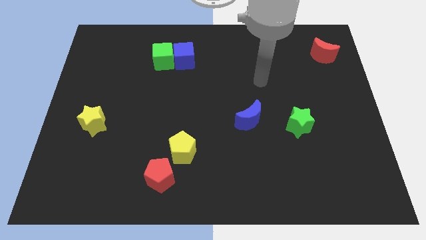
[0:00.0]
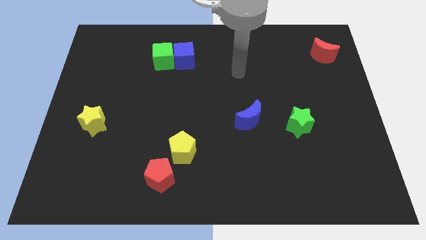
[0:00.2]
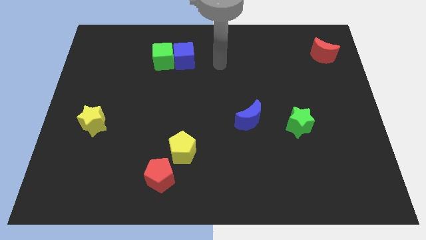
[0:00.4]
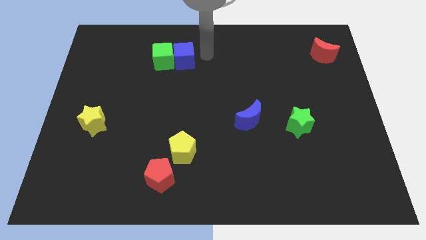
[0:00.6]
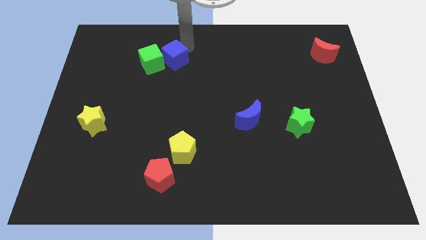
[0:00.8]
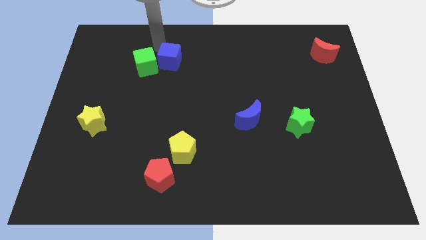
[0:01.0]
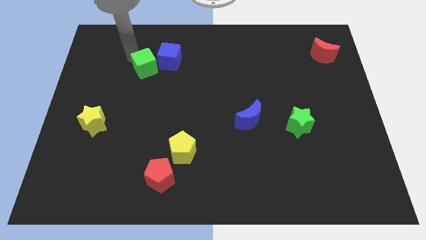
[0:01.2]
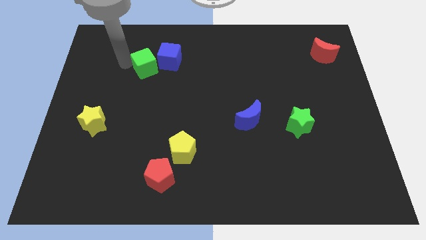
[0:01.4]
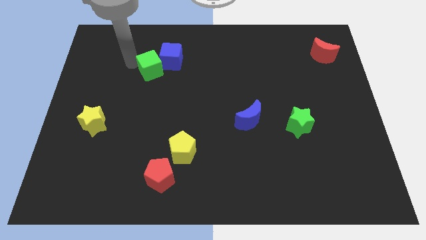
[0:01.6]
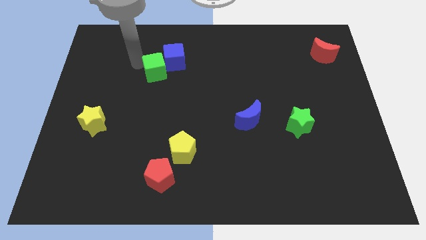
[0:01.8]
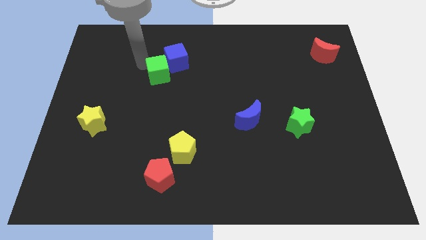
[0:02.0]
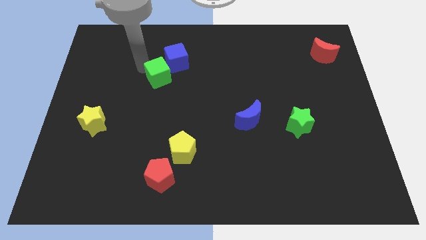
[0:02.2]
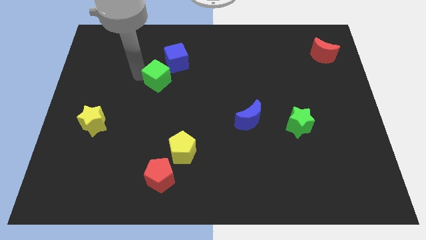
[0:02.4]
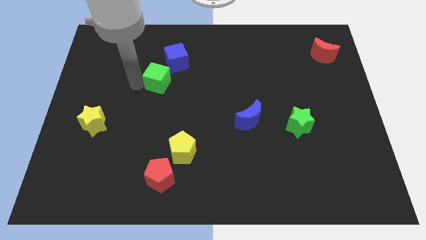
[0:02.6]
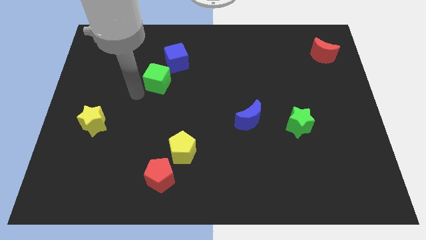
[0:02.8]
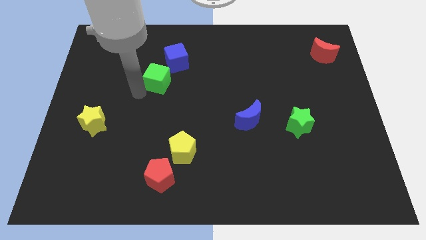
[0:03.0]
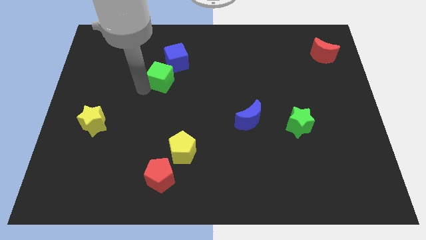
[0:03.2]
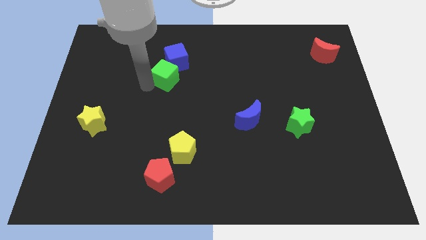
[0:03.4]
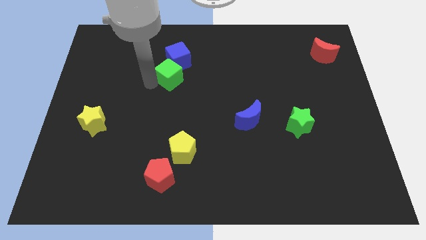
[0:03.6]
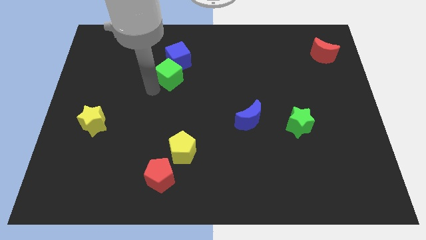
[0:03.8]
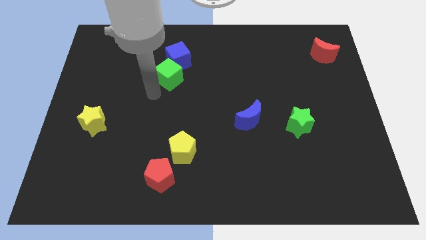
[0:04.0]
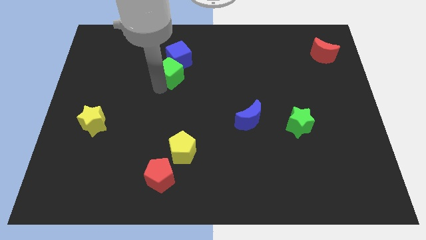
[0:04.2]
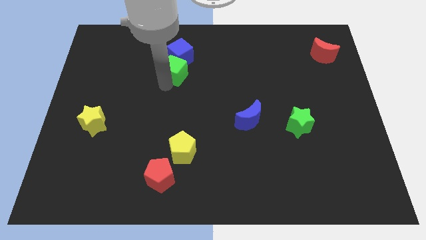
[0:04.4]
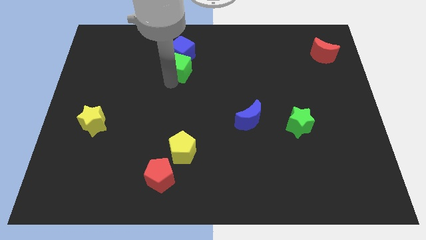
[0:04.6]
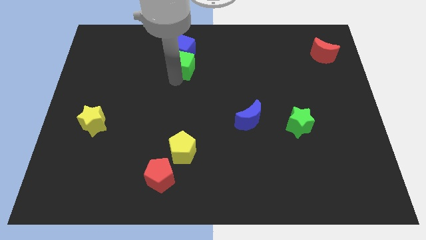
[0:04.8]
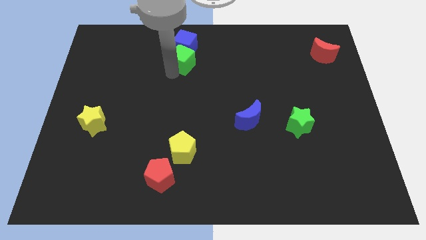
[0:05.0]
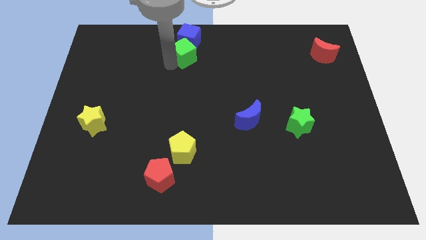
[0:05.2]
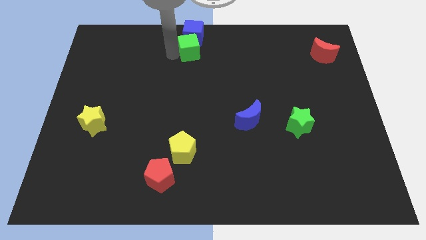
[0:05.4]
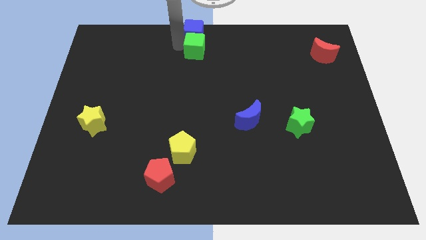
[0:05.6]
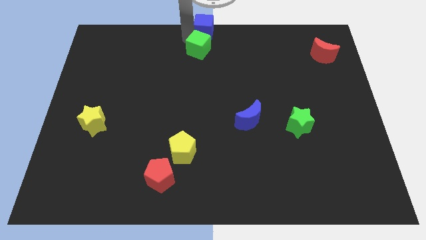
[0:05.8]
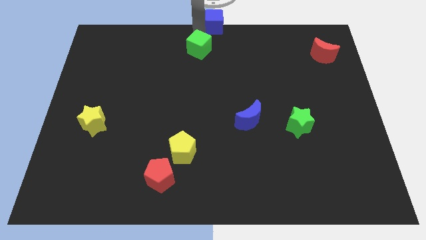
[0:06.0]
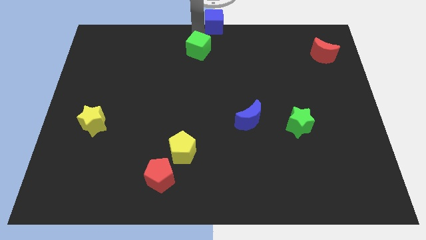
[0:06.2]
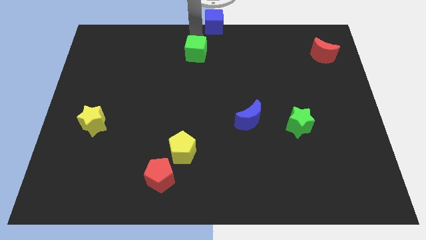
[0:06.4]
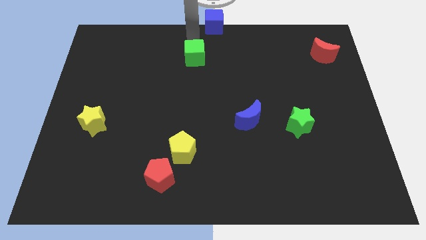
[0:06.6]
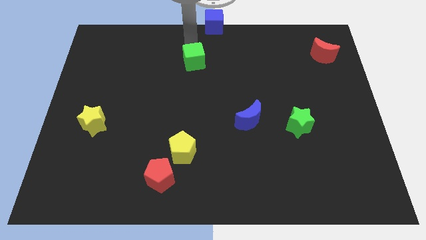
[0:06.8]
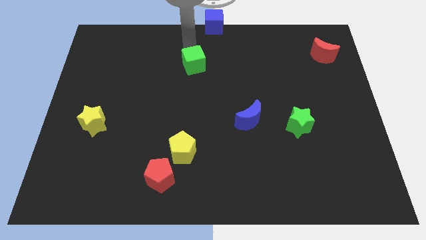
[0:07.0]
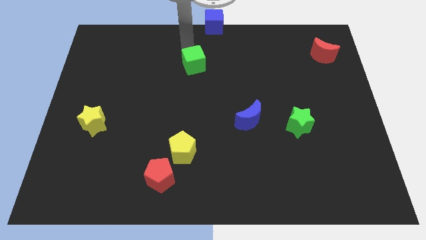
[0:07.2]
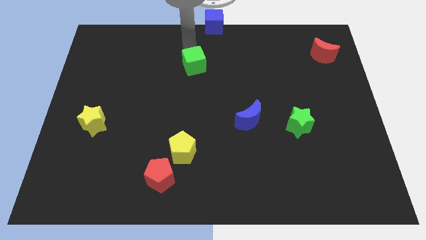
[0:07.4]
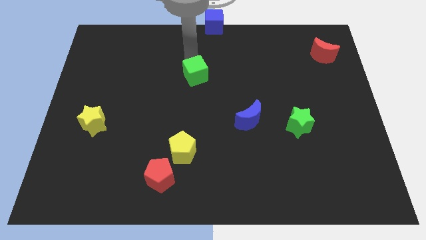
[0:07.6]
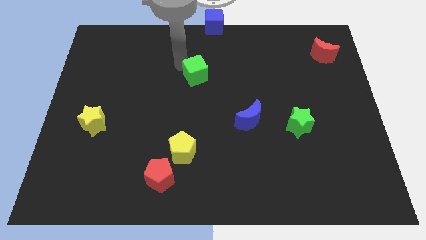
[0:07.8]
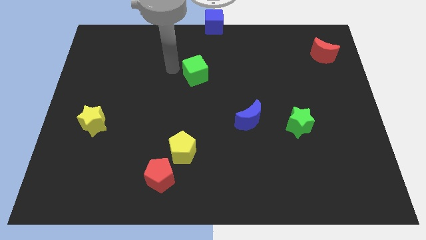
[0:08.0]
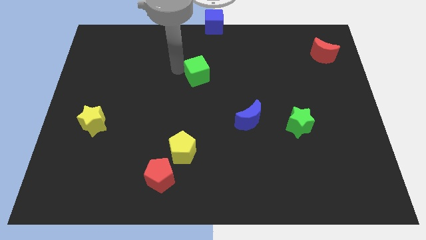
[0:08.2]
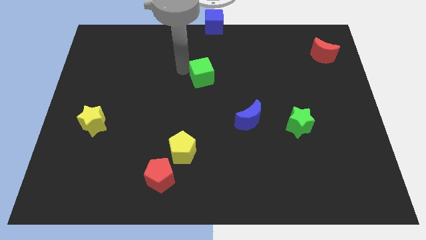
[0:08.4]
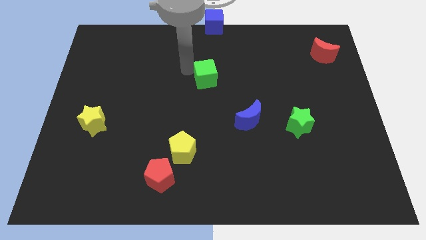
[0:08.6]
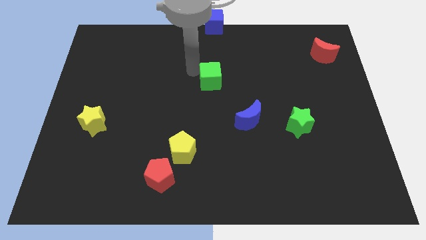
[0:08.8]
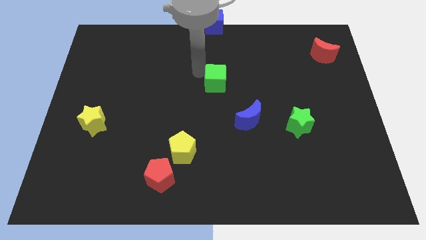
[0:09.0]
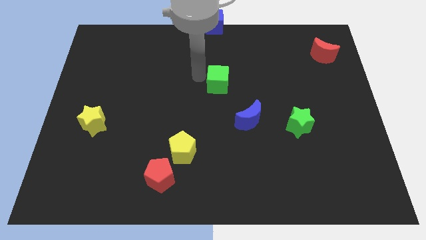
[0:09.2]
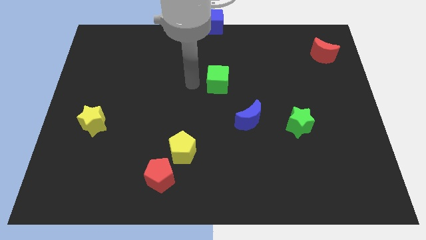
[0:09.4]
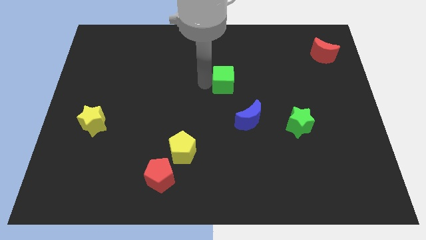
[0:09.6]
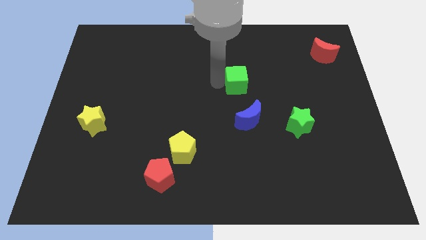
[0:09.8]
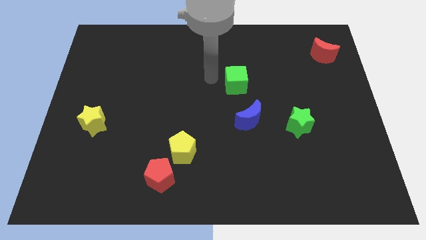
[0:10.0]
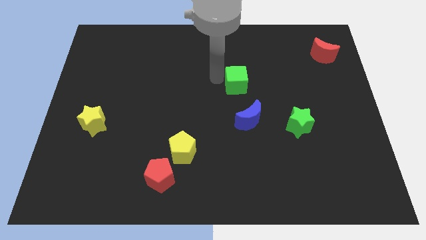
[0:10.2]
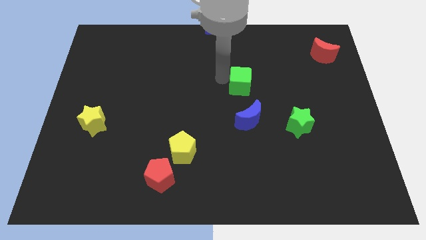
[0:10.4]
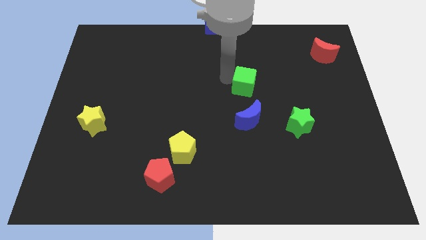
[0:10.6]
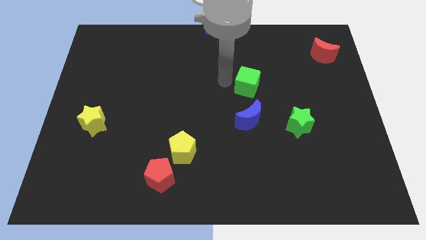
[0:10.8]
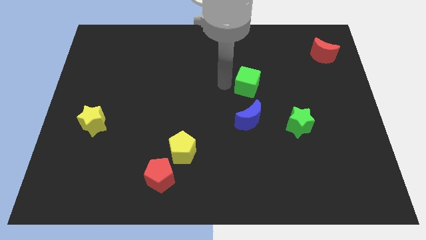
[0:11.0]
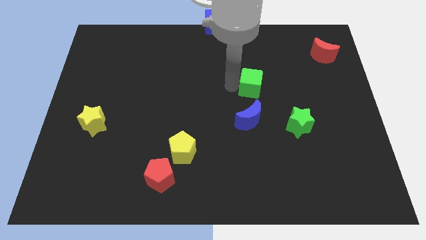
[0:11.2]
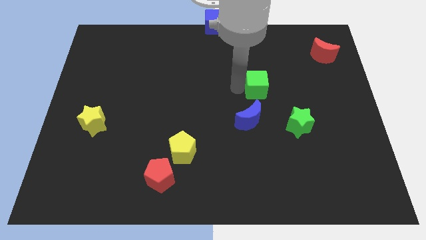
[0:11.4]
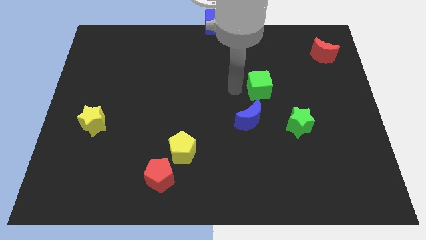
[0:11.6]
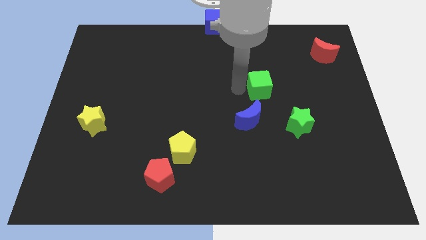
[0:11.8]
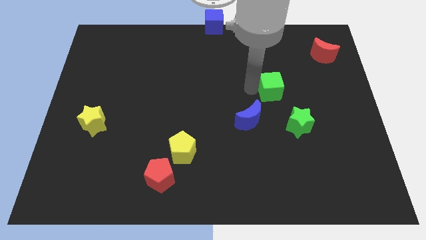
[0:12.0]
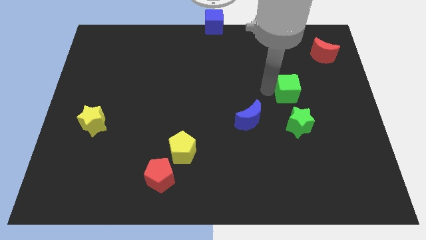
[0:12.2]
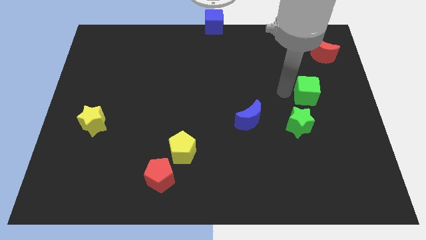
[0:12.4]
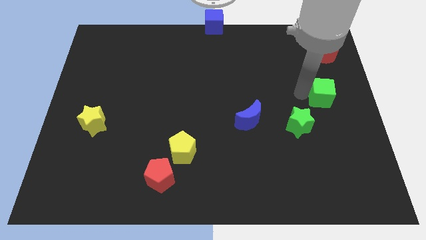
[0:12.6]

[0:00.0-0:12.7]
move the green cube to the center right
